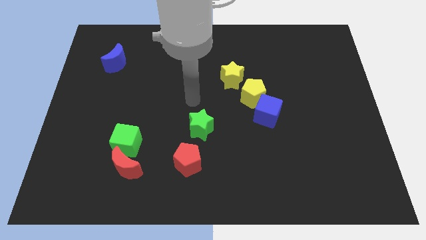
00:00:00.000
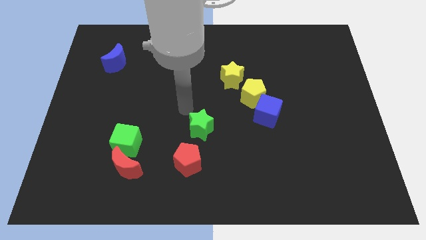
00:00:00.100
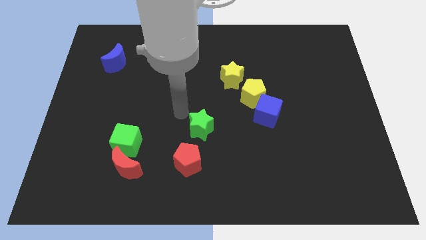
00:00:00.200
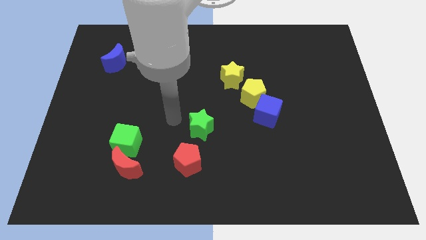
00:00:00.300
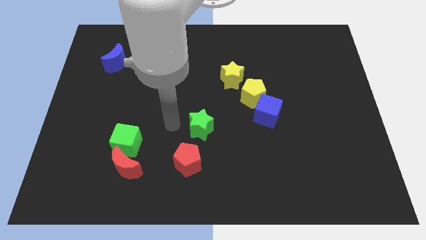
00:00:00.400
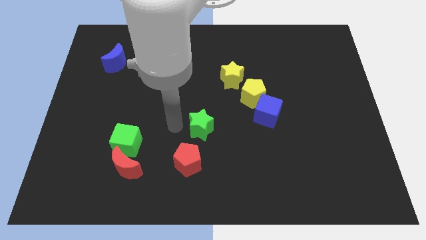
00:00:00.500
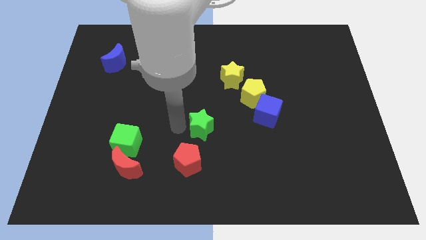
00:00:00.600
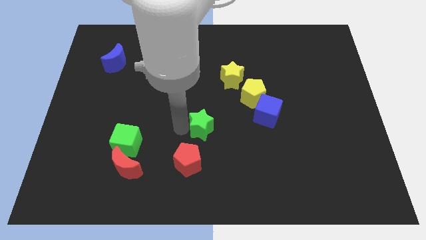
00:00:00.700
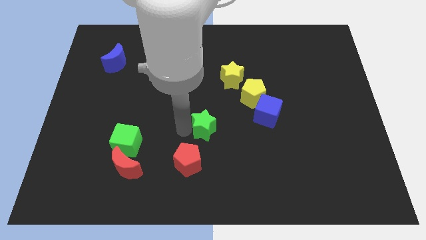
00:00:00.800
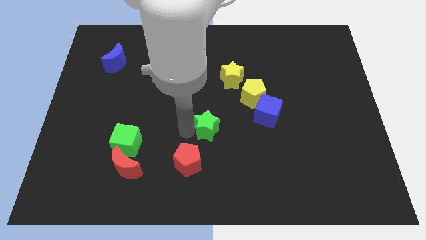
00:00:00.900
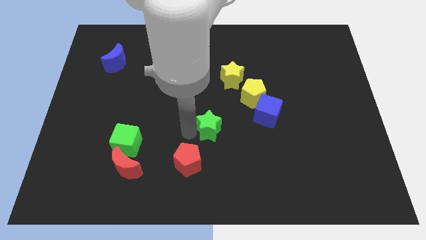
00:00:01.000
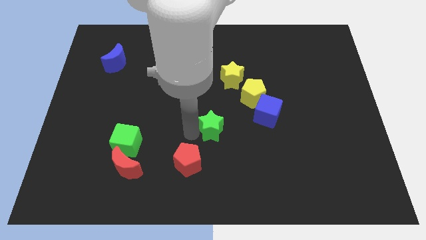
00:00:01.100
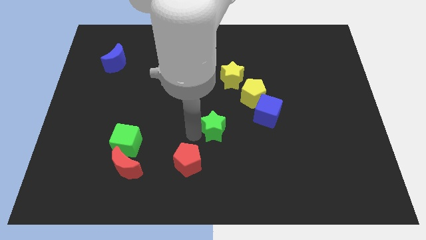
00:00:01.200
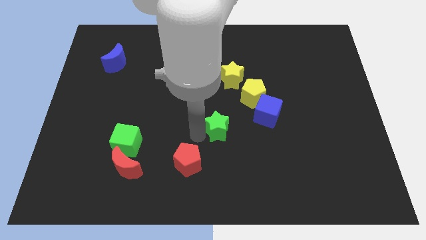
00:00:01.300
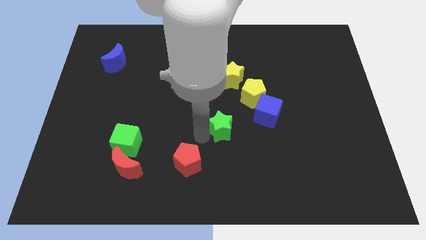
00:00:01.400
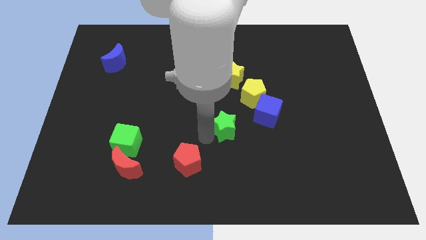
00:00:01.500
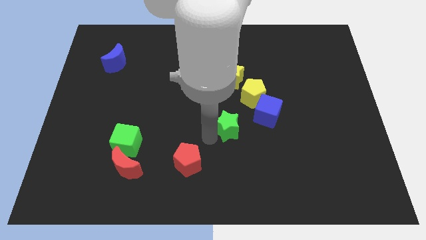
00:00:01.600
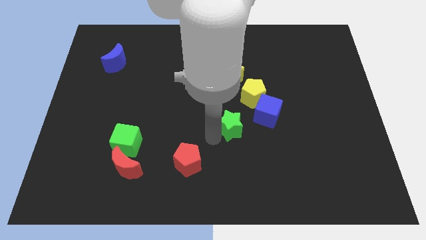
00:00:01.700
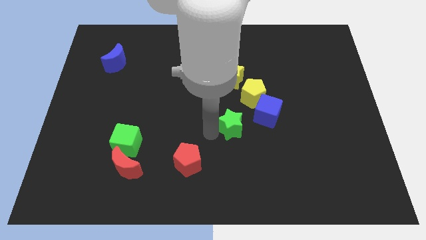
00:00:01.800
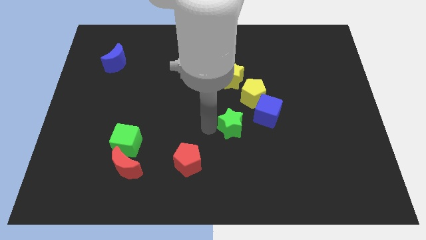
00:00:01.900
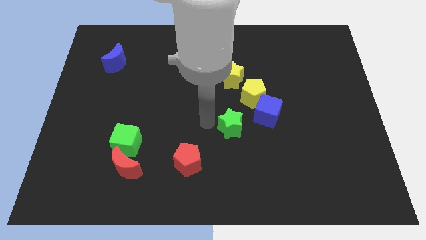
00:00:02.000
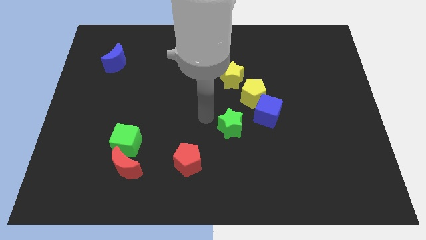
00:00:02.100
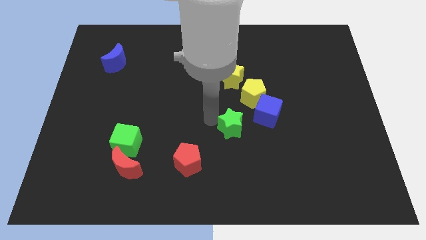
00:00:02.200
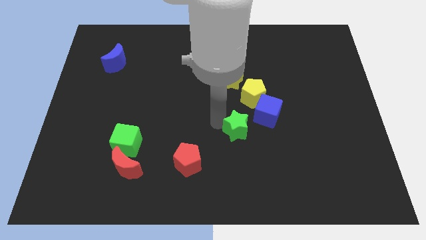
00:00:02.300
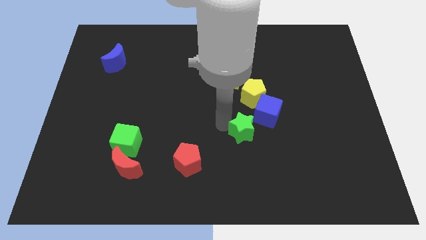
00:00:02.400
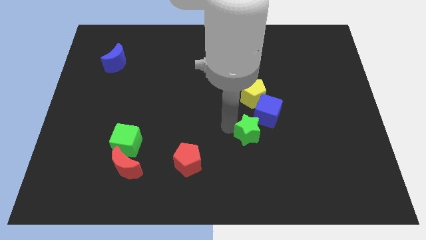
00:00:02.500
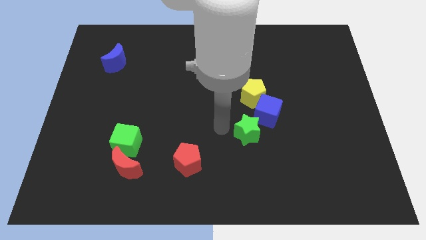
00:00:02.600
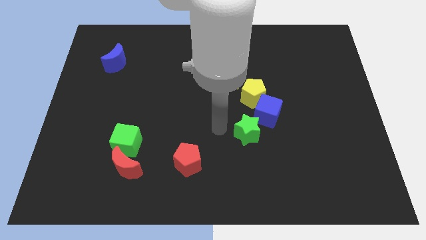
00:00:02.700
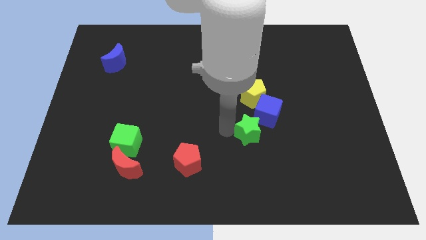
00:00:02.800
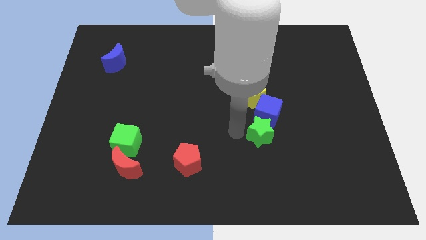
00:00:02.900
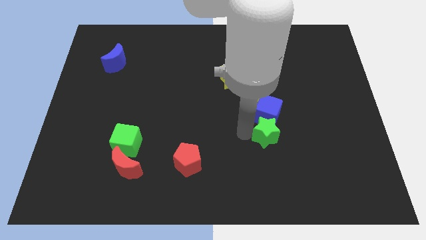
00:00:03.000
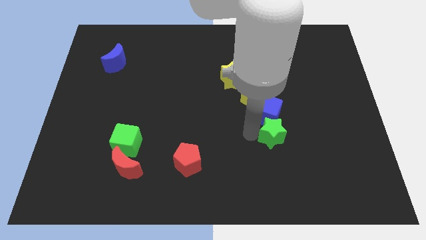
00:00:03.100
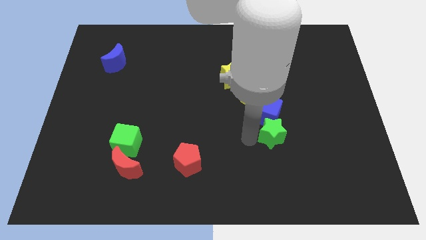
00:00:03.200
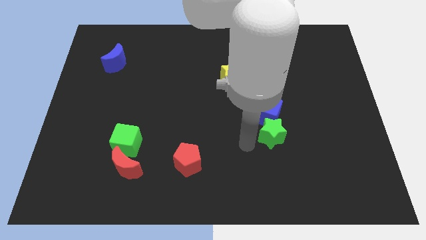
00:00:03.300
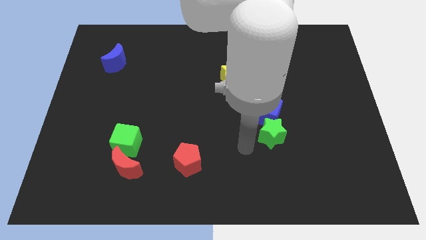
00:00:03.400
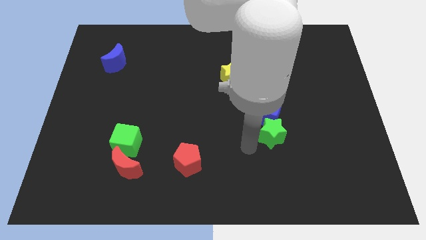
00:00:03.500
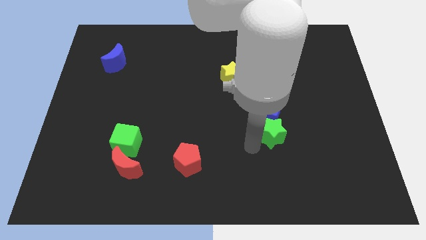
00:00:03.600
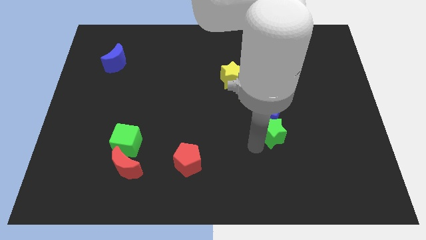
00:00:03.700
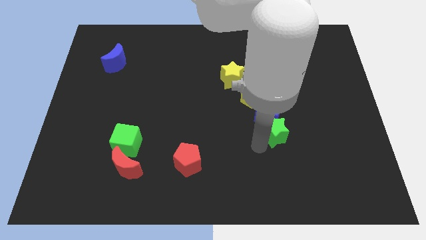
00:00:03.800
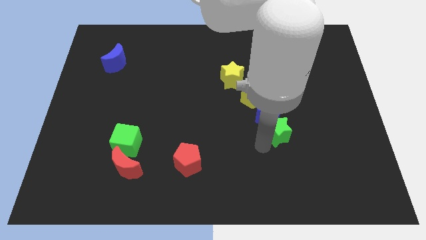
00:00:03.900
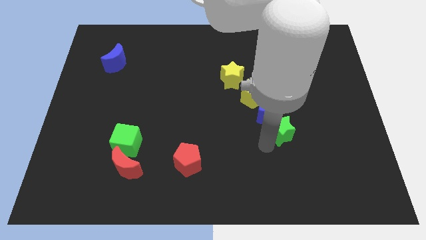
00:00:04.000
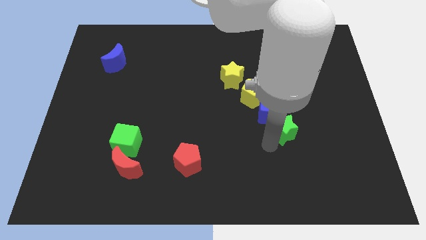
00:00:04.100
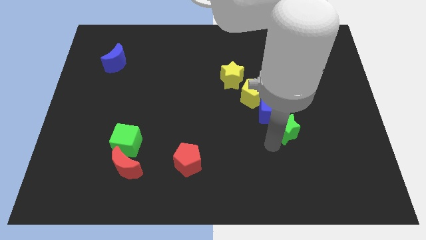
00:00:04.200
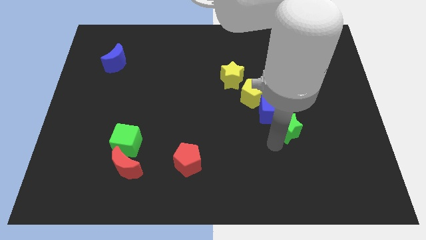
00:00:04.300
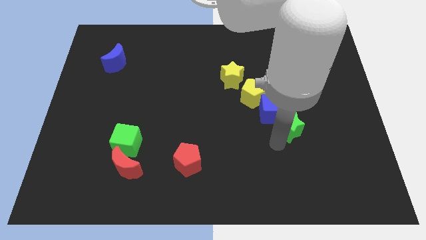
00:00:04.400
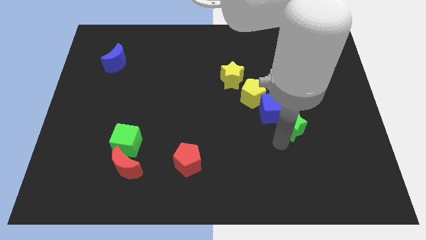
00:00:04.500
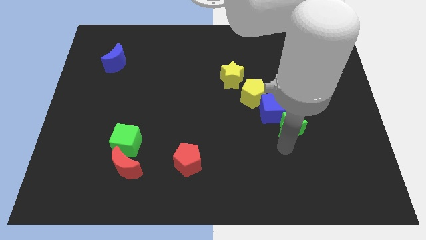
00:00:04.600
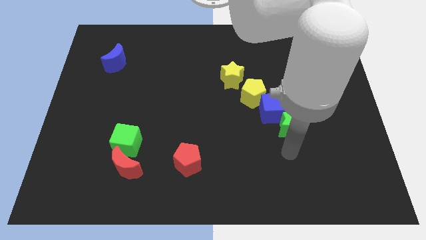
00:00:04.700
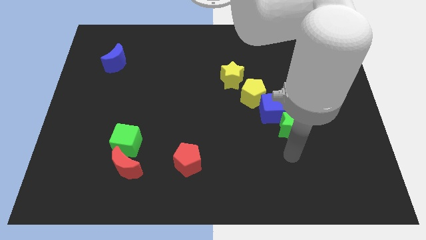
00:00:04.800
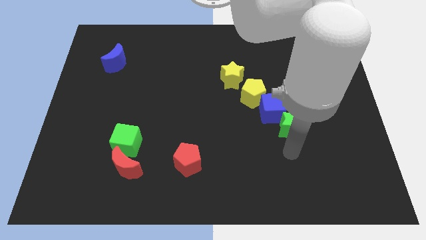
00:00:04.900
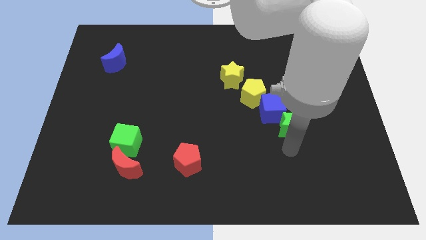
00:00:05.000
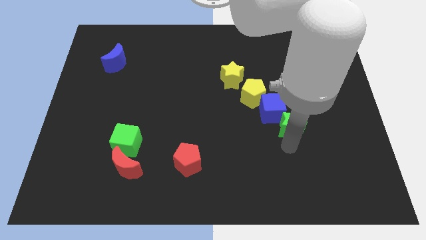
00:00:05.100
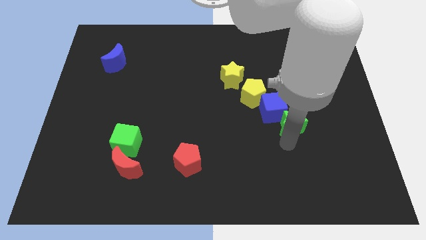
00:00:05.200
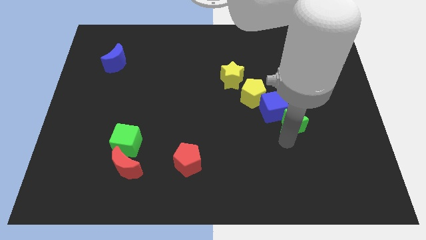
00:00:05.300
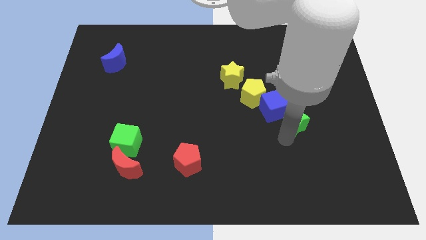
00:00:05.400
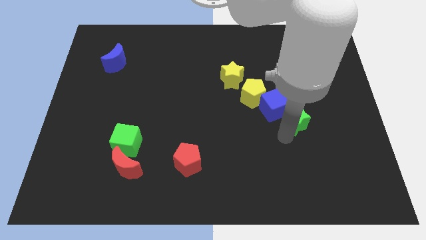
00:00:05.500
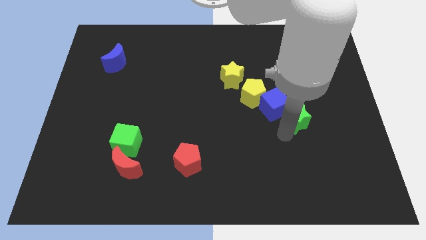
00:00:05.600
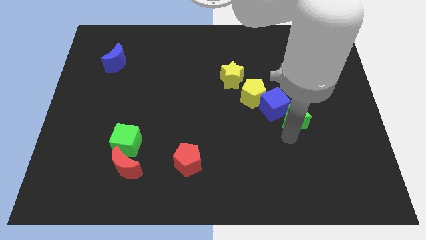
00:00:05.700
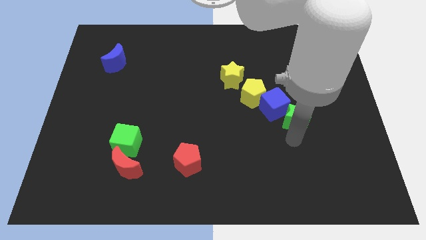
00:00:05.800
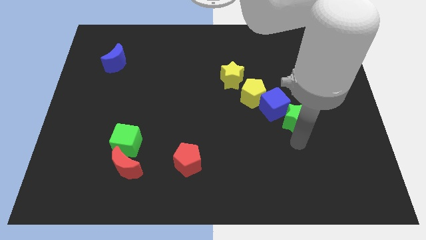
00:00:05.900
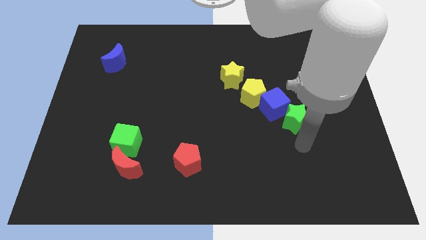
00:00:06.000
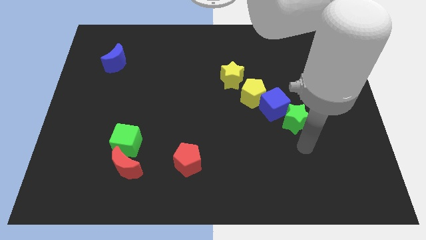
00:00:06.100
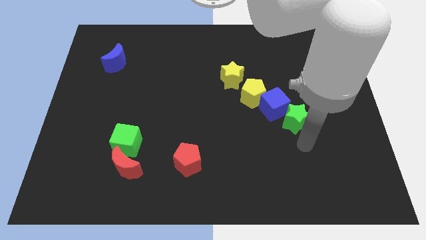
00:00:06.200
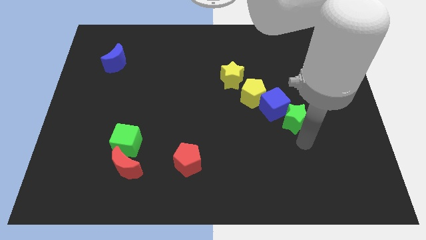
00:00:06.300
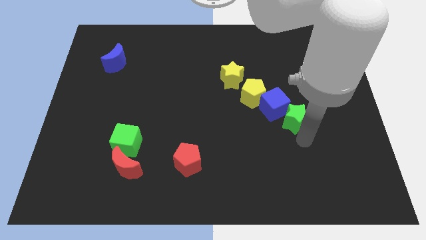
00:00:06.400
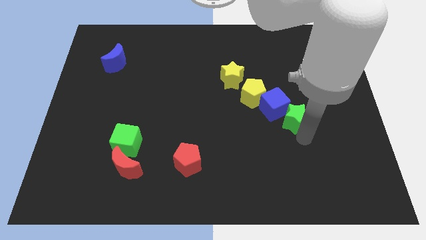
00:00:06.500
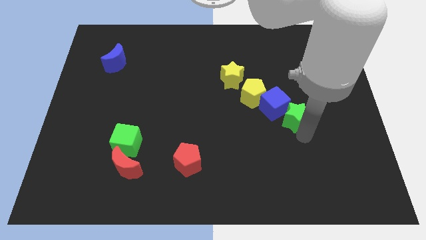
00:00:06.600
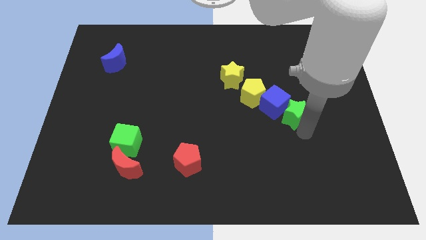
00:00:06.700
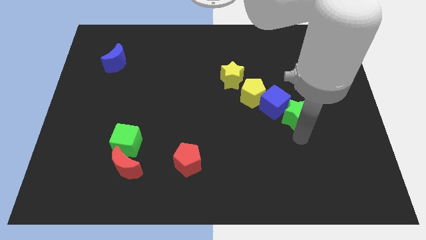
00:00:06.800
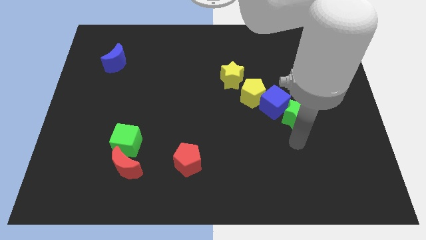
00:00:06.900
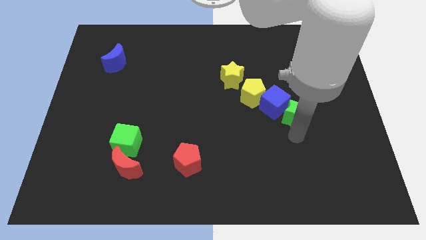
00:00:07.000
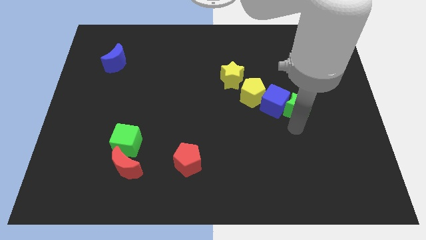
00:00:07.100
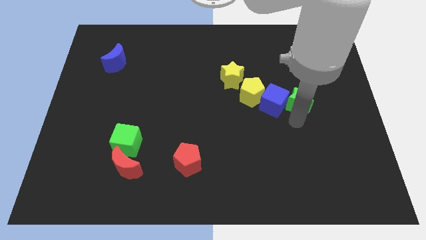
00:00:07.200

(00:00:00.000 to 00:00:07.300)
put the green star diagonally up and to the right of the blue cube
